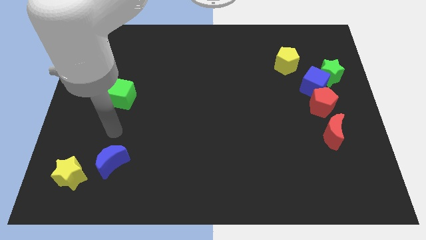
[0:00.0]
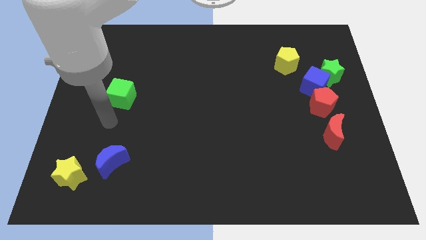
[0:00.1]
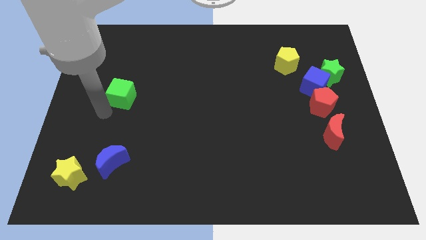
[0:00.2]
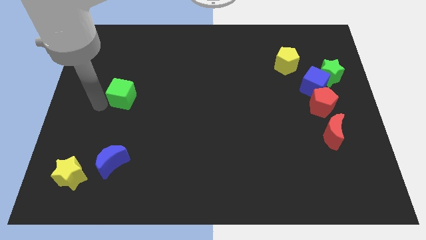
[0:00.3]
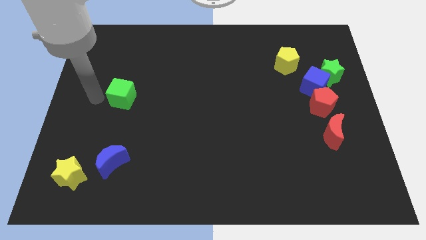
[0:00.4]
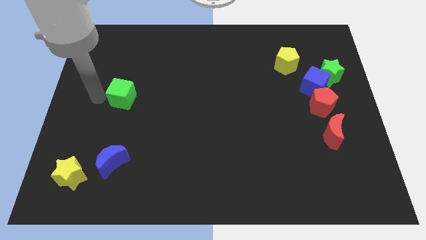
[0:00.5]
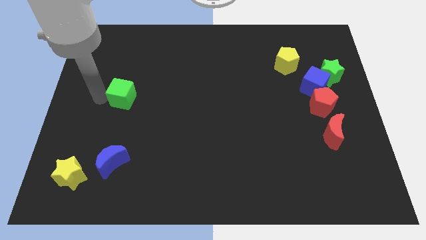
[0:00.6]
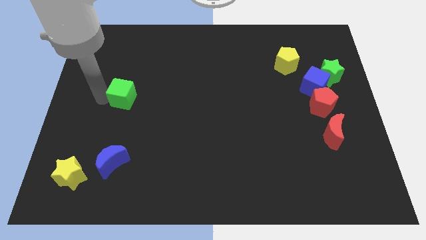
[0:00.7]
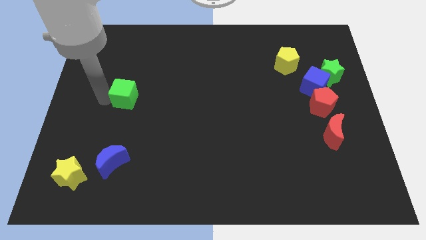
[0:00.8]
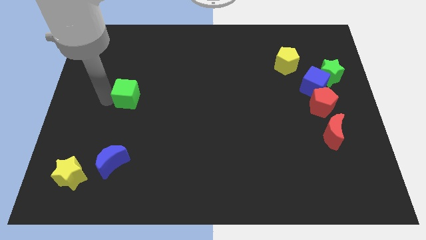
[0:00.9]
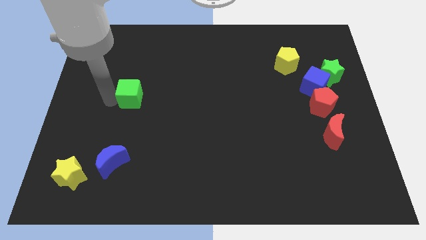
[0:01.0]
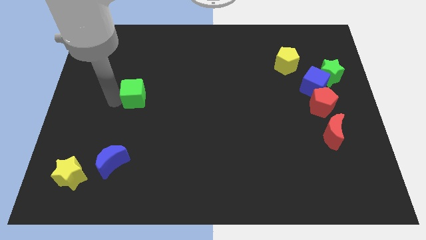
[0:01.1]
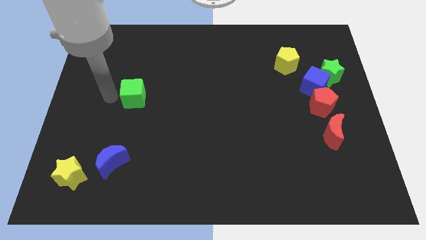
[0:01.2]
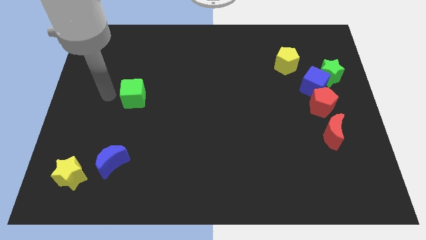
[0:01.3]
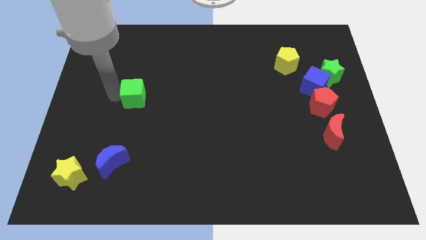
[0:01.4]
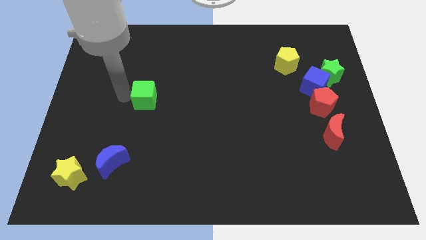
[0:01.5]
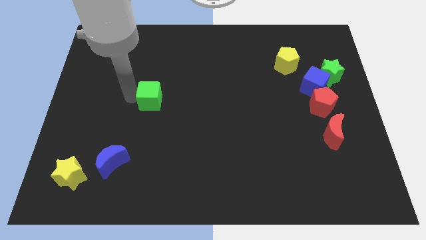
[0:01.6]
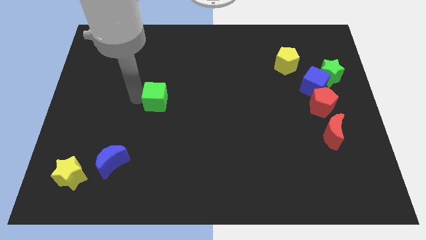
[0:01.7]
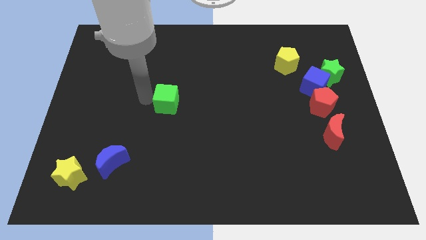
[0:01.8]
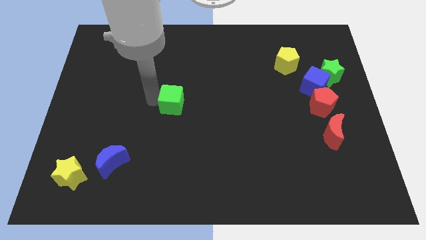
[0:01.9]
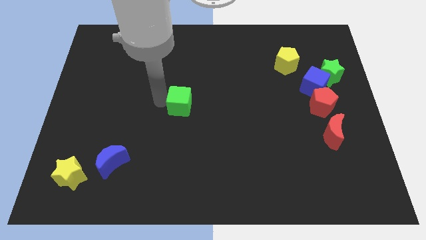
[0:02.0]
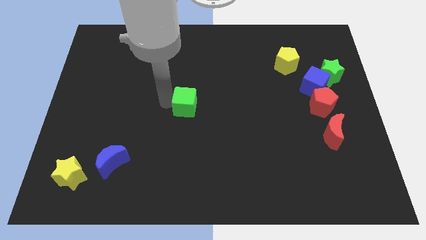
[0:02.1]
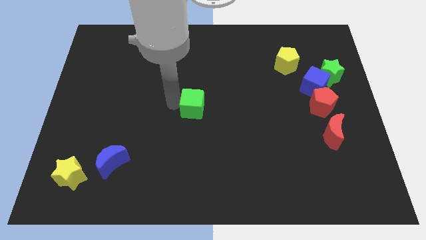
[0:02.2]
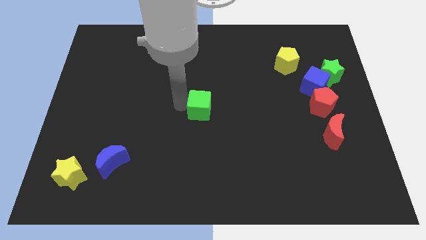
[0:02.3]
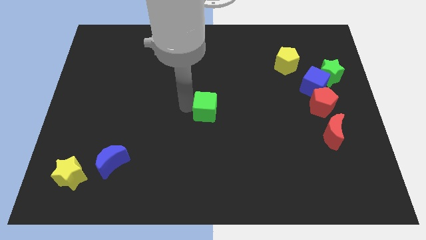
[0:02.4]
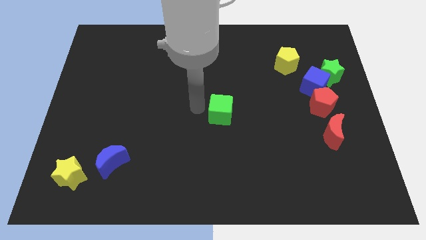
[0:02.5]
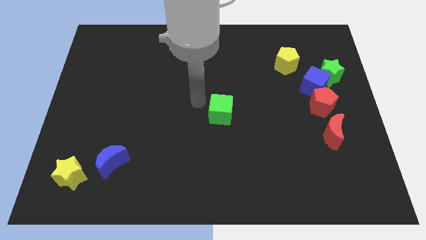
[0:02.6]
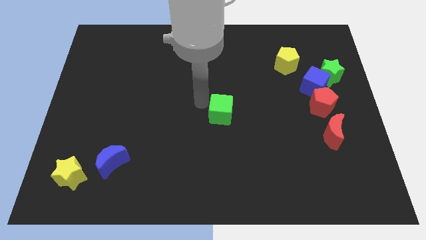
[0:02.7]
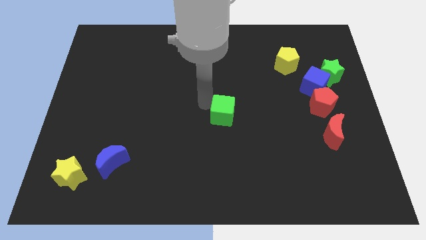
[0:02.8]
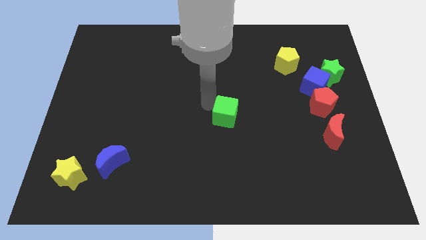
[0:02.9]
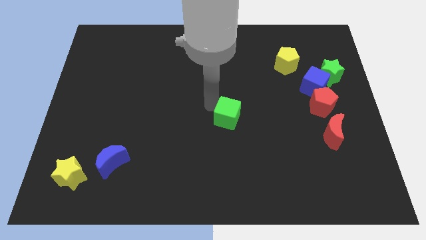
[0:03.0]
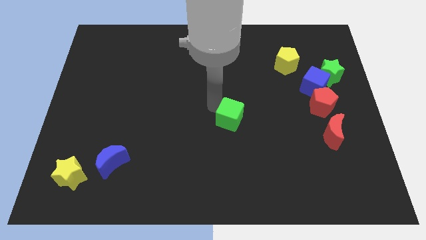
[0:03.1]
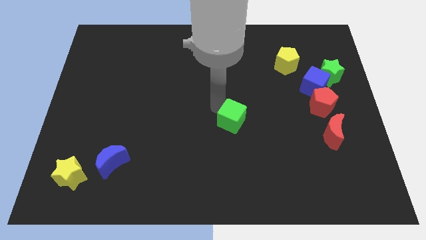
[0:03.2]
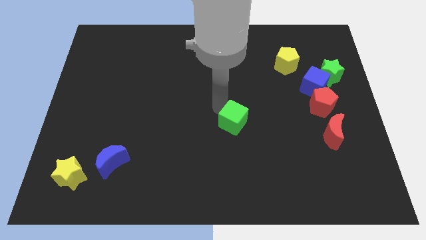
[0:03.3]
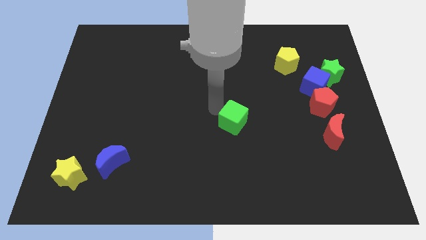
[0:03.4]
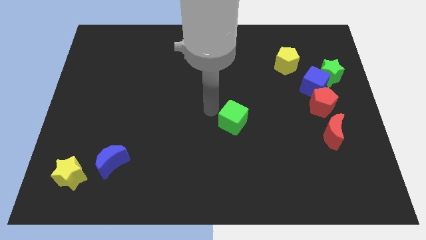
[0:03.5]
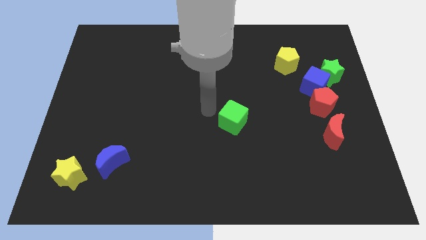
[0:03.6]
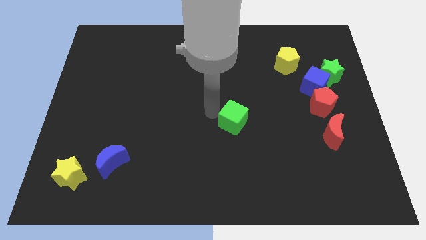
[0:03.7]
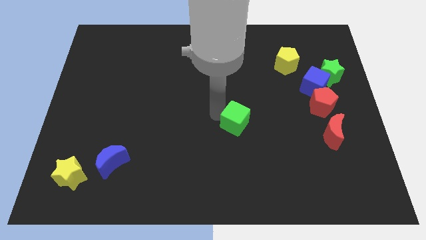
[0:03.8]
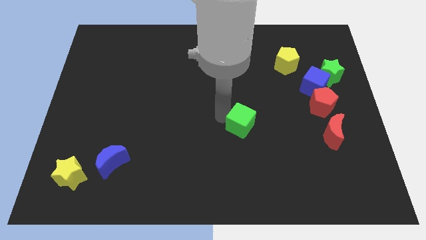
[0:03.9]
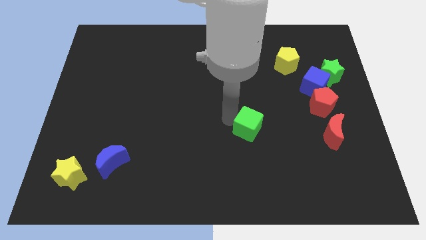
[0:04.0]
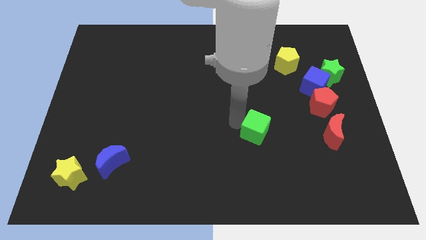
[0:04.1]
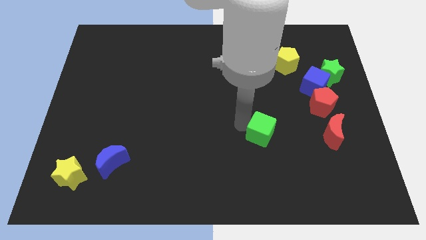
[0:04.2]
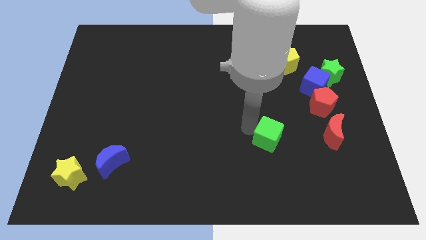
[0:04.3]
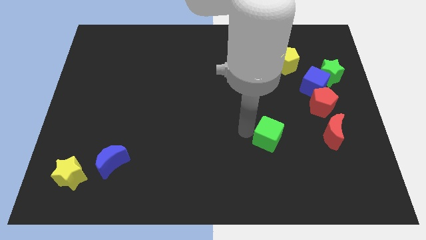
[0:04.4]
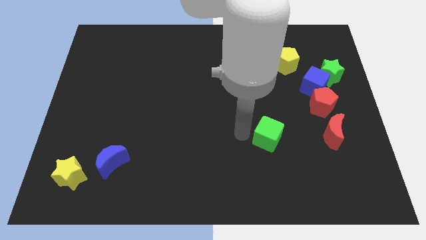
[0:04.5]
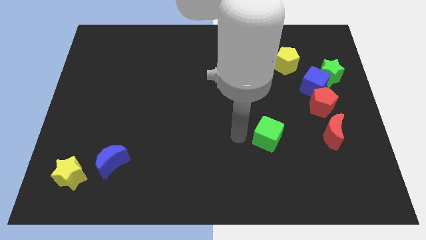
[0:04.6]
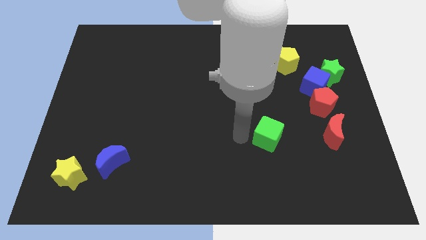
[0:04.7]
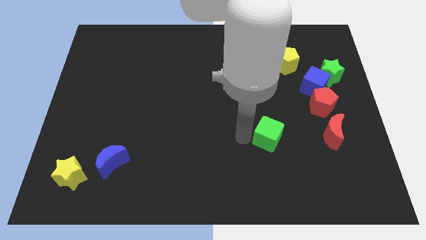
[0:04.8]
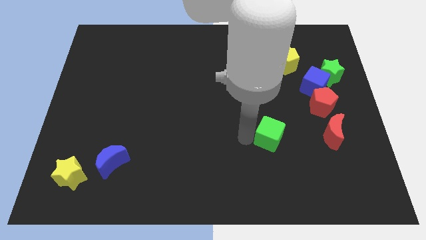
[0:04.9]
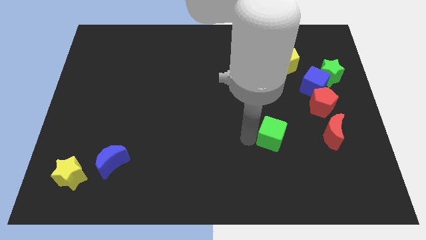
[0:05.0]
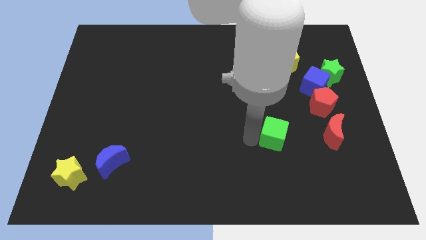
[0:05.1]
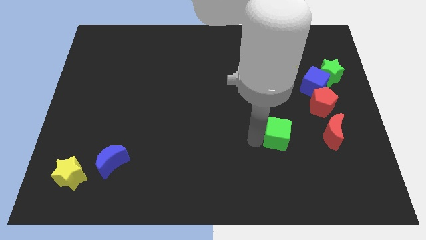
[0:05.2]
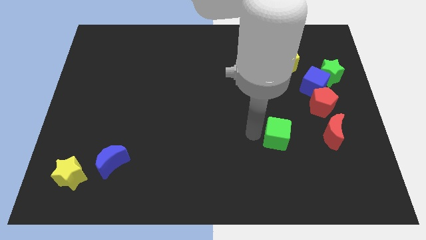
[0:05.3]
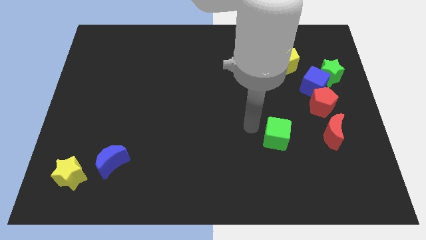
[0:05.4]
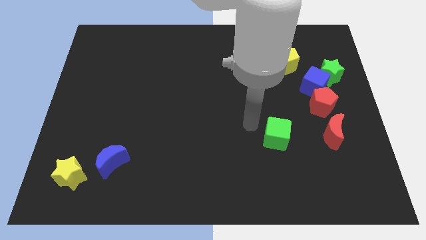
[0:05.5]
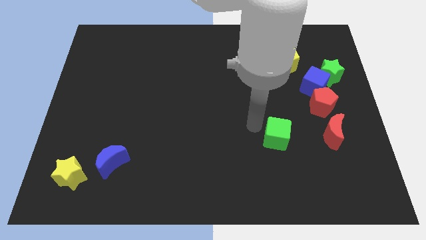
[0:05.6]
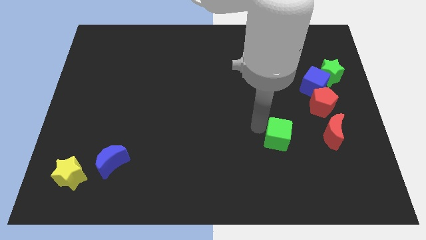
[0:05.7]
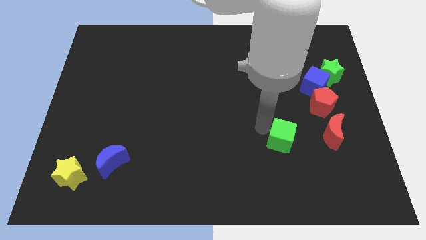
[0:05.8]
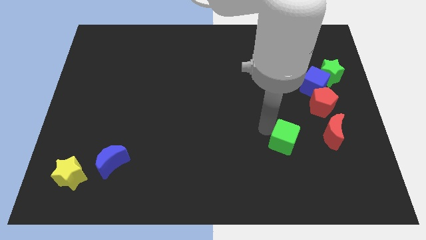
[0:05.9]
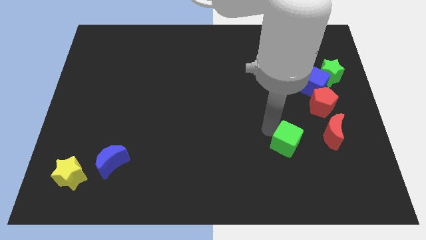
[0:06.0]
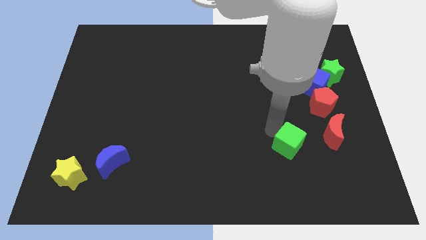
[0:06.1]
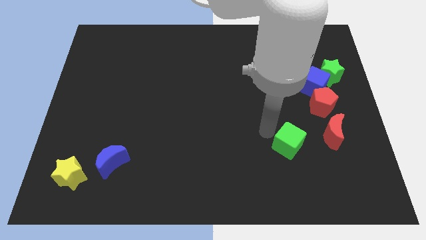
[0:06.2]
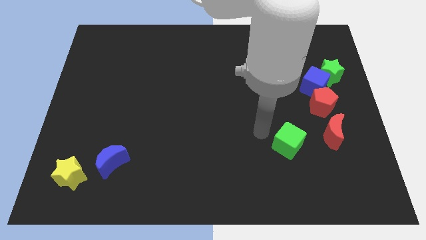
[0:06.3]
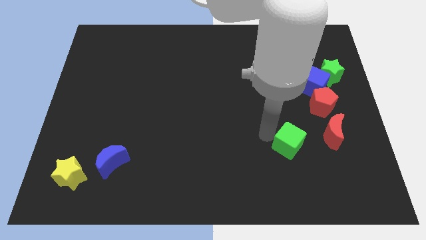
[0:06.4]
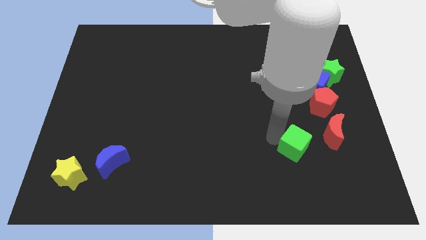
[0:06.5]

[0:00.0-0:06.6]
put the green cube to the bottom left side of the red moon

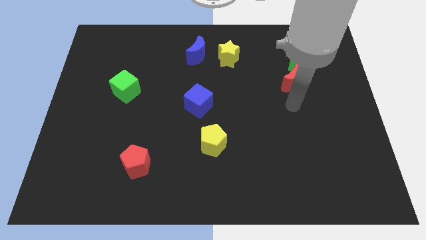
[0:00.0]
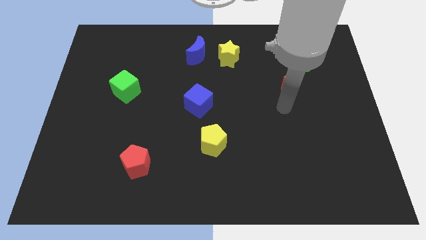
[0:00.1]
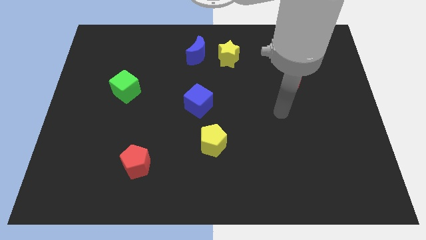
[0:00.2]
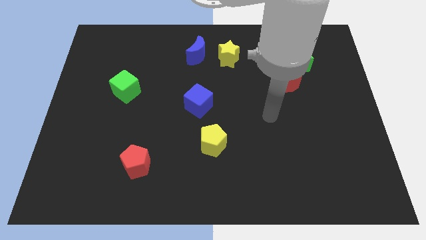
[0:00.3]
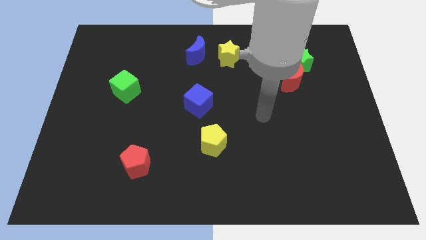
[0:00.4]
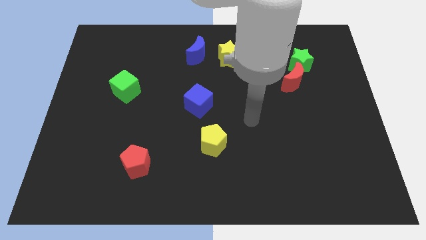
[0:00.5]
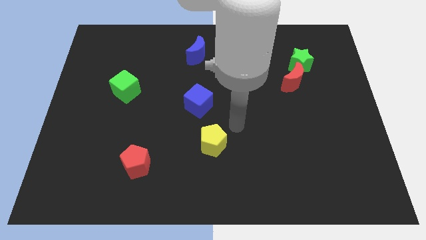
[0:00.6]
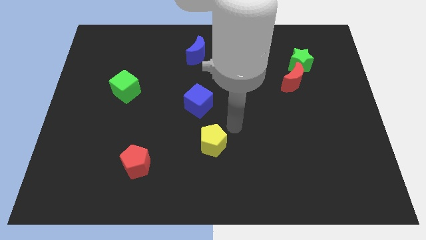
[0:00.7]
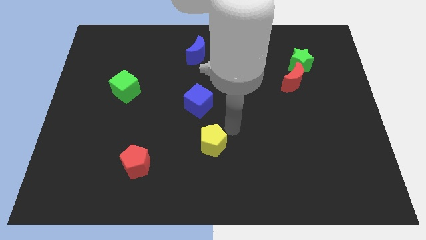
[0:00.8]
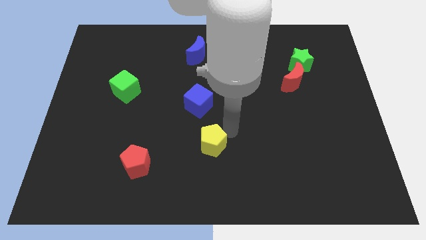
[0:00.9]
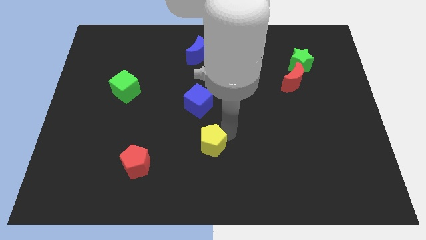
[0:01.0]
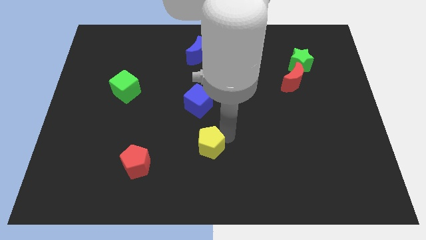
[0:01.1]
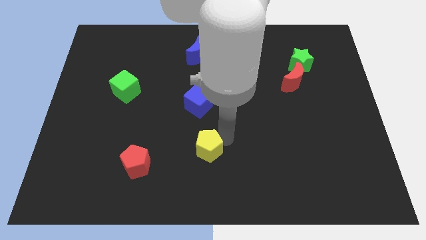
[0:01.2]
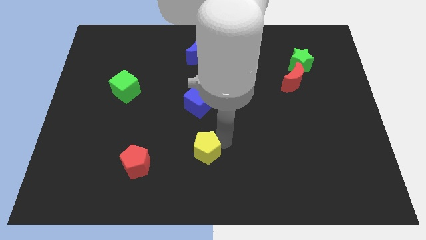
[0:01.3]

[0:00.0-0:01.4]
push the yellow pentagon to the right of the red pentagon
